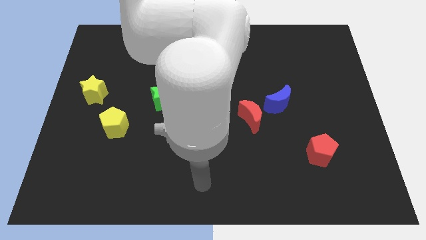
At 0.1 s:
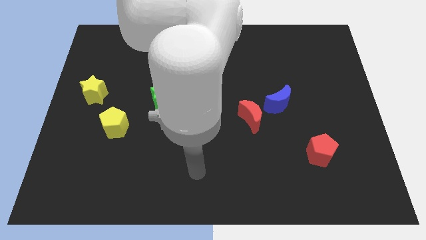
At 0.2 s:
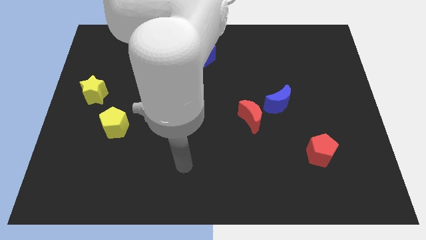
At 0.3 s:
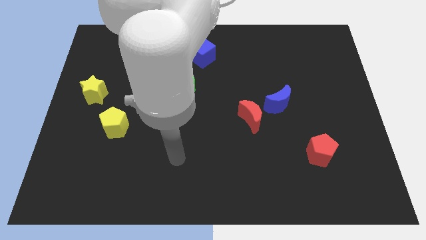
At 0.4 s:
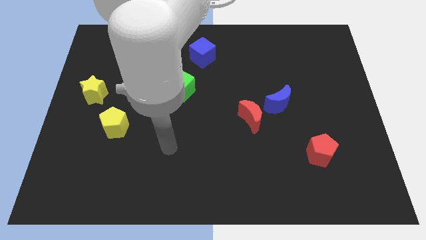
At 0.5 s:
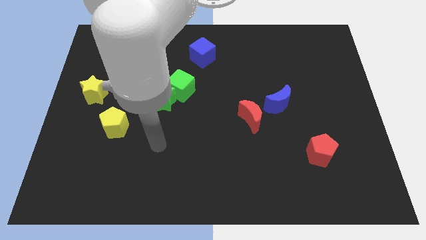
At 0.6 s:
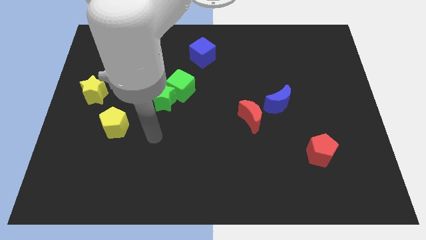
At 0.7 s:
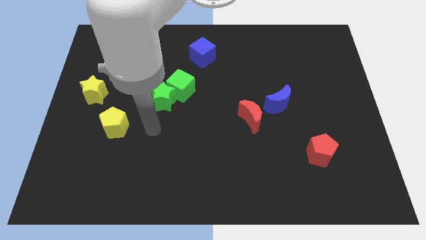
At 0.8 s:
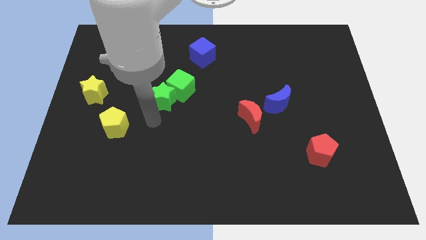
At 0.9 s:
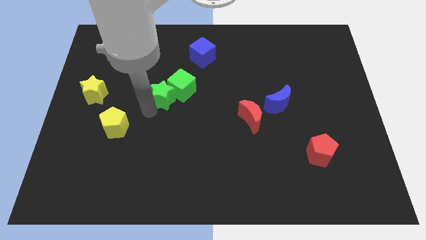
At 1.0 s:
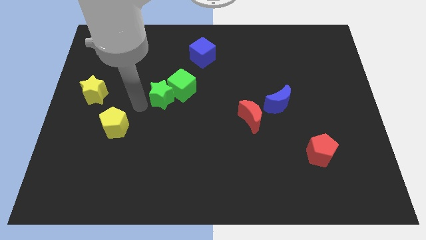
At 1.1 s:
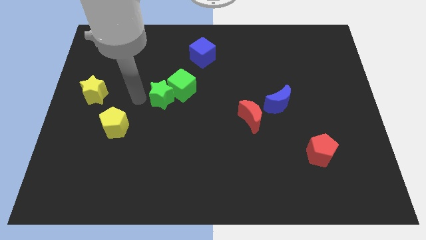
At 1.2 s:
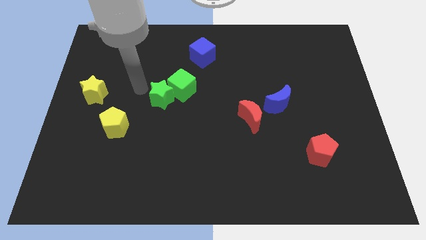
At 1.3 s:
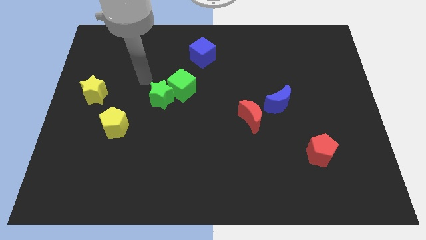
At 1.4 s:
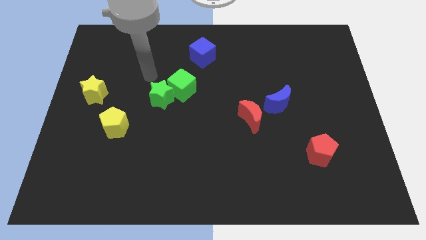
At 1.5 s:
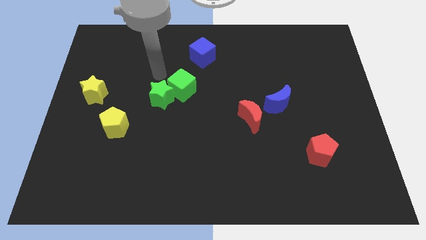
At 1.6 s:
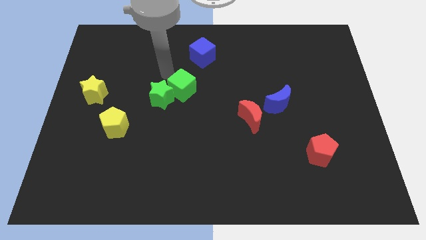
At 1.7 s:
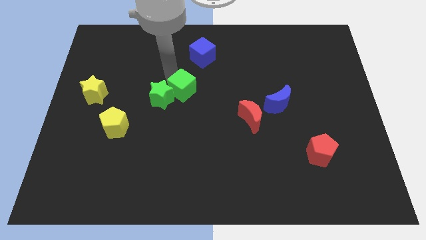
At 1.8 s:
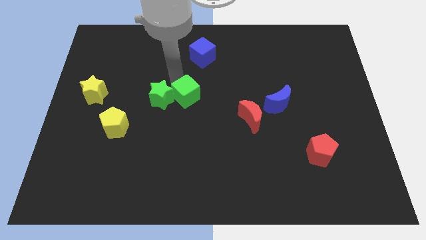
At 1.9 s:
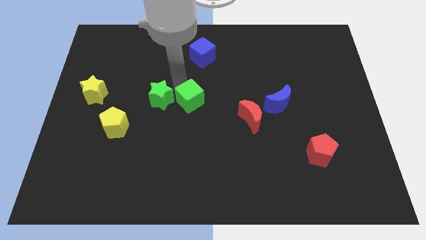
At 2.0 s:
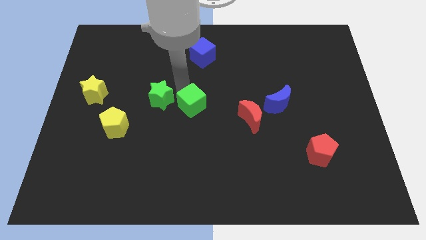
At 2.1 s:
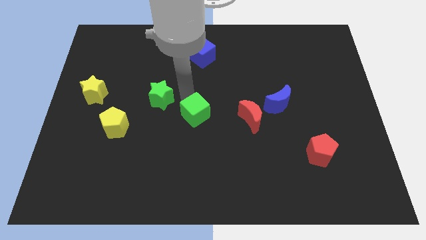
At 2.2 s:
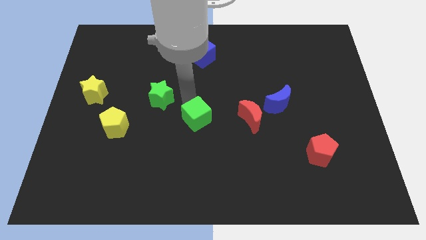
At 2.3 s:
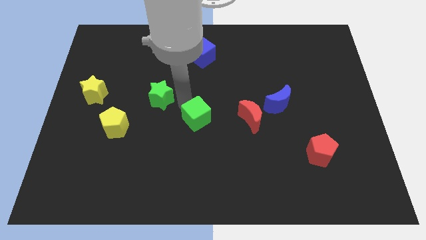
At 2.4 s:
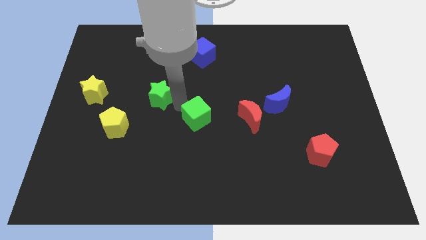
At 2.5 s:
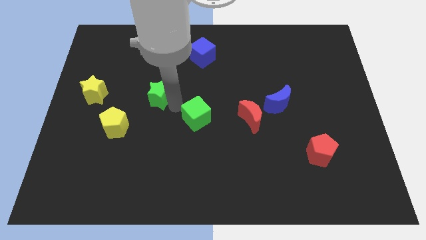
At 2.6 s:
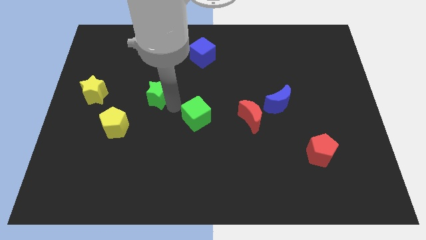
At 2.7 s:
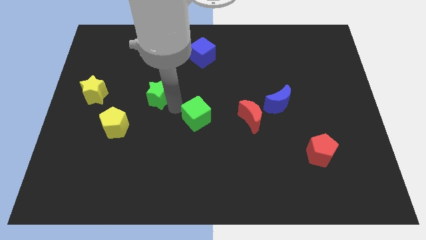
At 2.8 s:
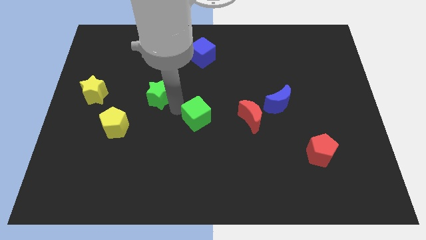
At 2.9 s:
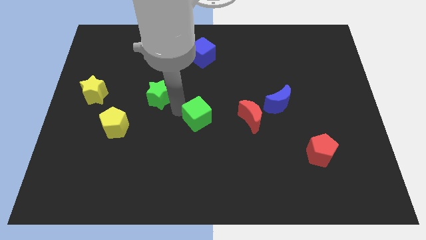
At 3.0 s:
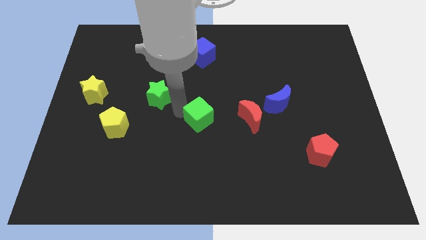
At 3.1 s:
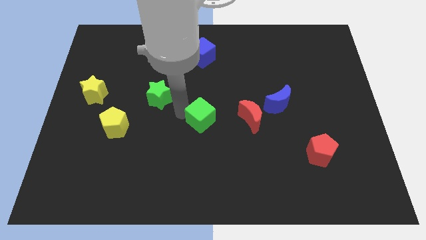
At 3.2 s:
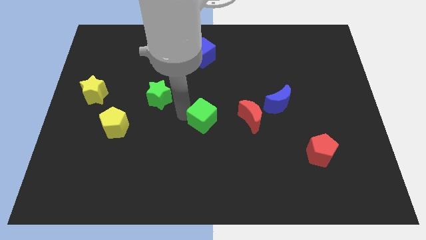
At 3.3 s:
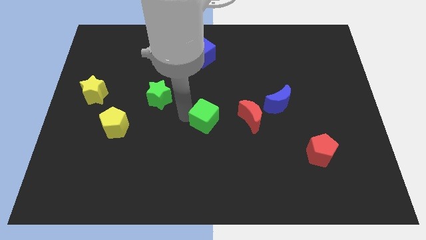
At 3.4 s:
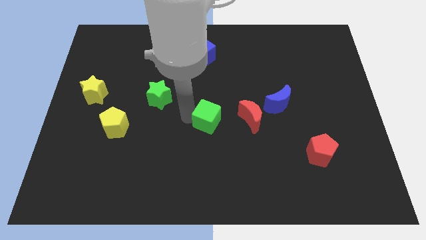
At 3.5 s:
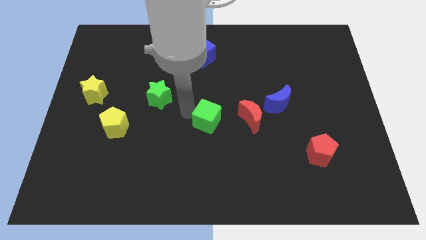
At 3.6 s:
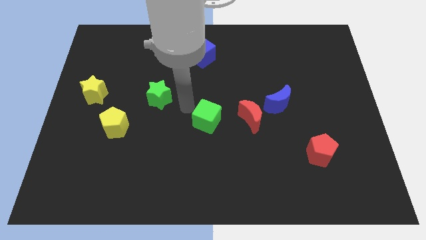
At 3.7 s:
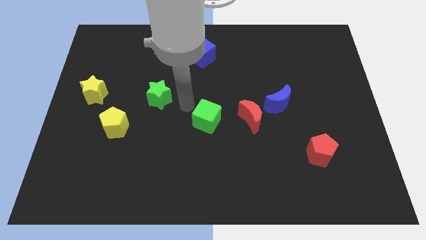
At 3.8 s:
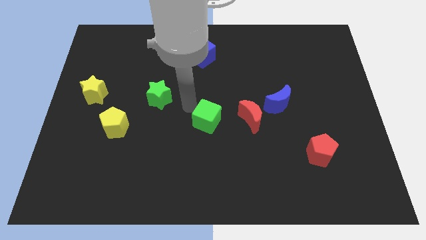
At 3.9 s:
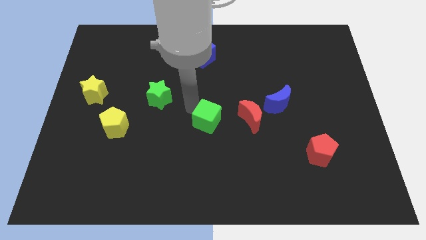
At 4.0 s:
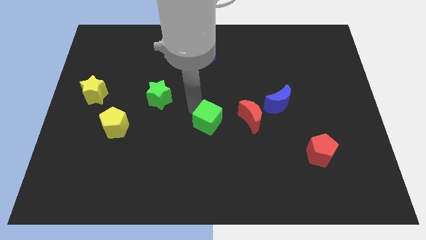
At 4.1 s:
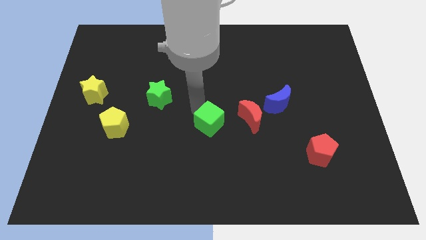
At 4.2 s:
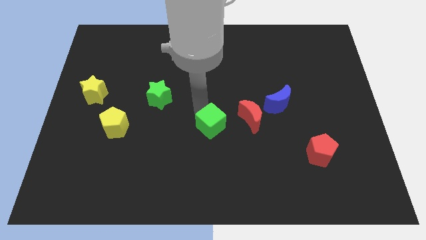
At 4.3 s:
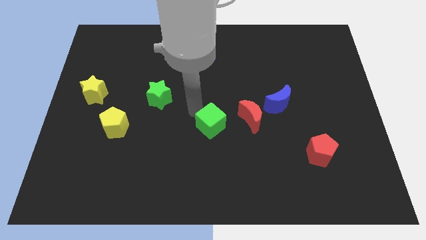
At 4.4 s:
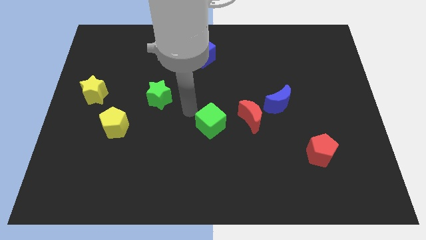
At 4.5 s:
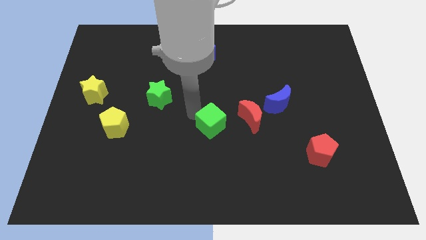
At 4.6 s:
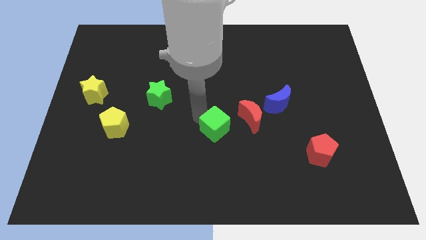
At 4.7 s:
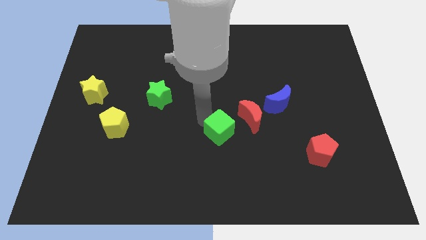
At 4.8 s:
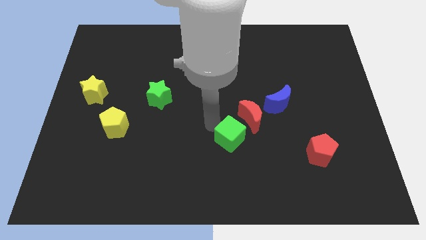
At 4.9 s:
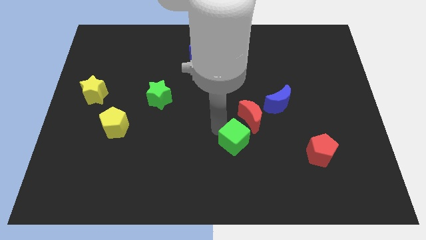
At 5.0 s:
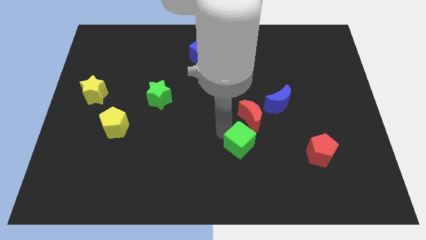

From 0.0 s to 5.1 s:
slide the green cube downwards and right diagonally

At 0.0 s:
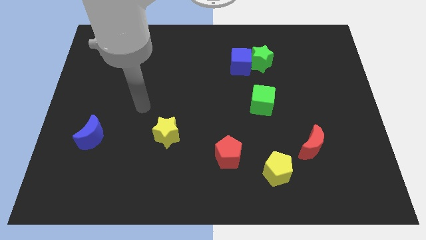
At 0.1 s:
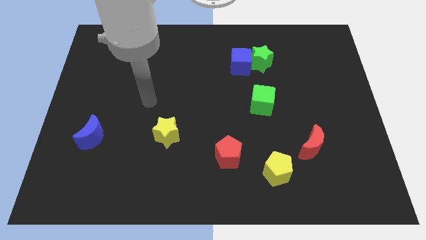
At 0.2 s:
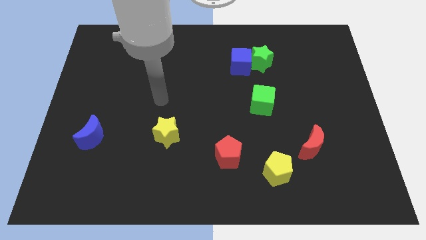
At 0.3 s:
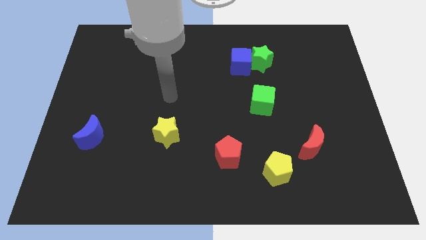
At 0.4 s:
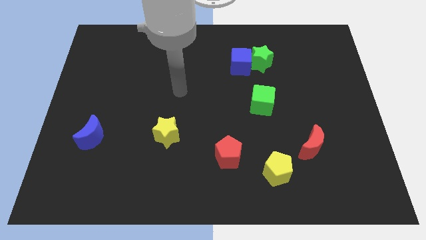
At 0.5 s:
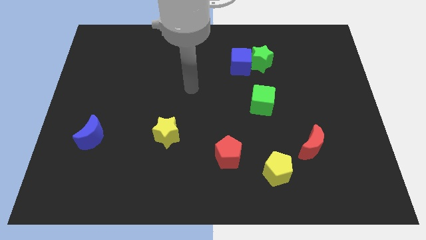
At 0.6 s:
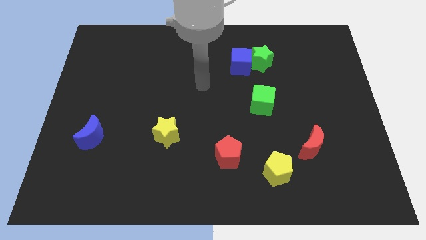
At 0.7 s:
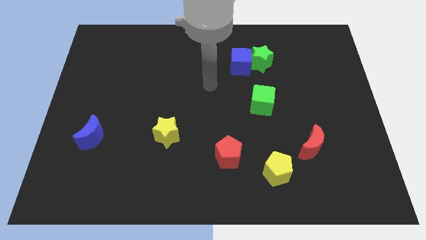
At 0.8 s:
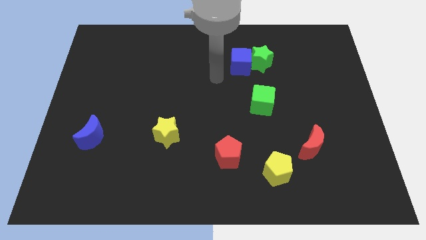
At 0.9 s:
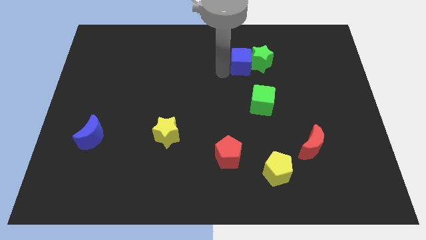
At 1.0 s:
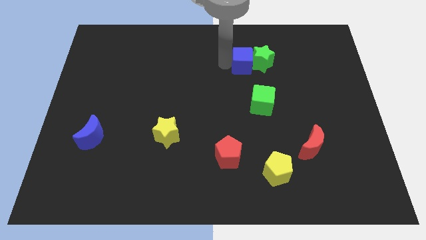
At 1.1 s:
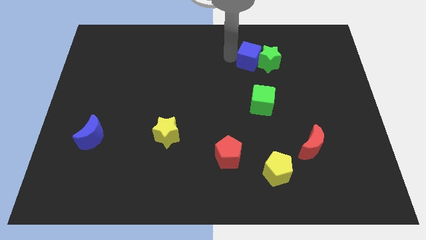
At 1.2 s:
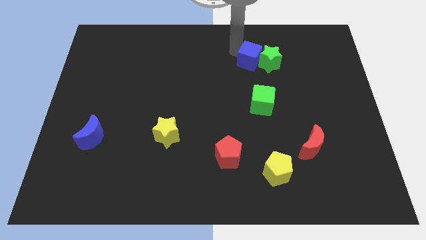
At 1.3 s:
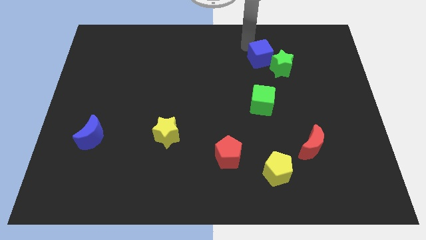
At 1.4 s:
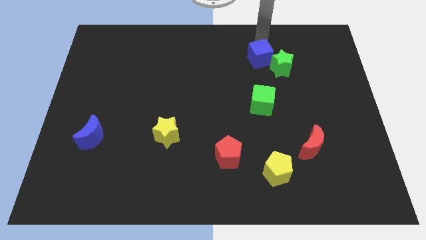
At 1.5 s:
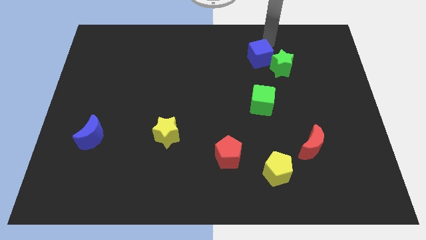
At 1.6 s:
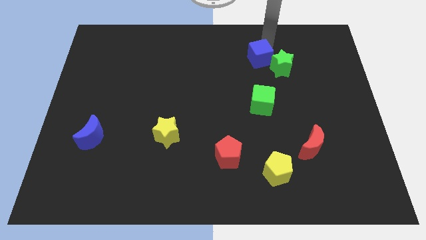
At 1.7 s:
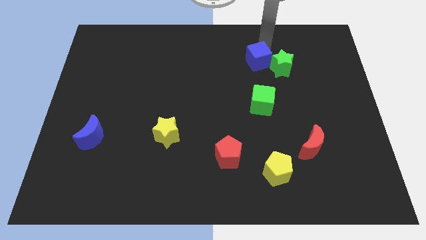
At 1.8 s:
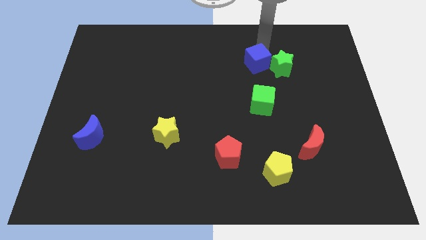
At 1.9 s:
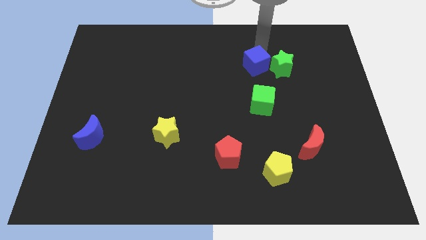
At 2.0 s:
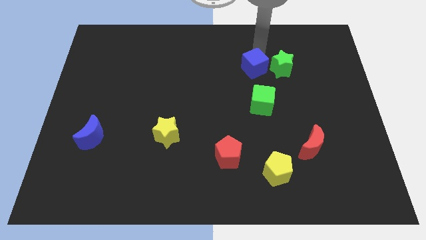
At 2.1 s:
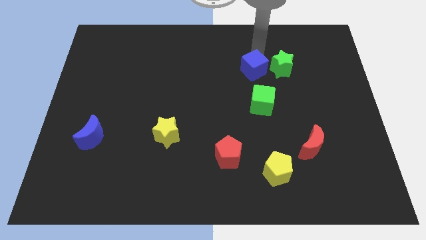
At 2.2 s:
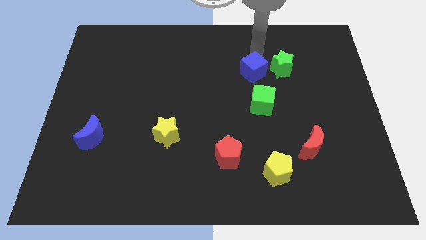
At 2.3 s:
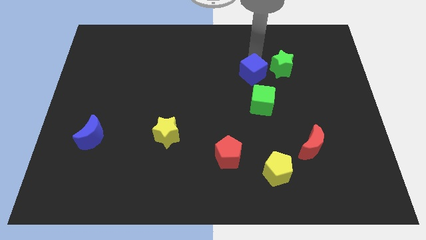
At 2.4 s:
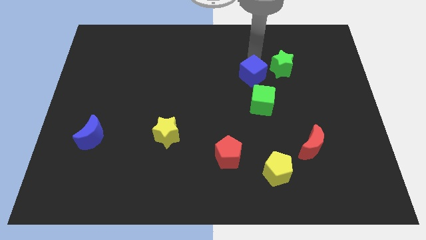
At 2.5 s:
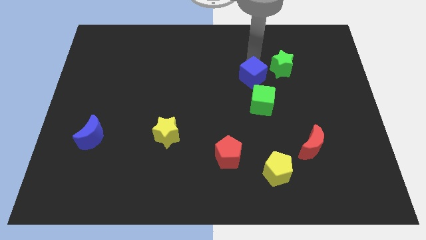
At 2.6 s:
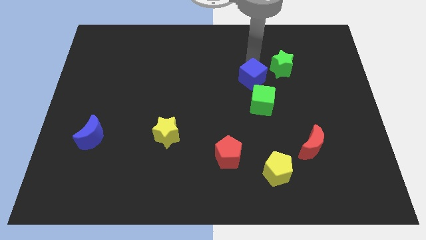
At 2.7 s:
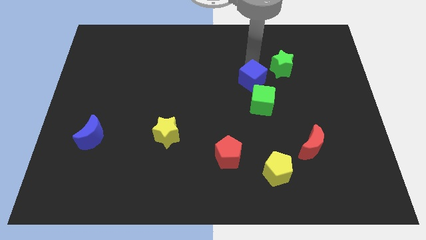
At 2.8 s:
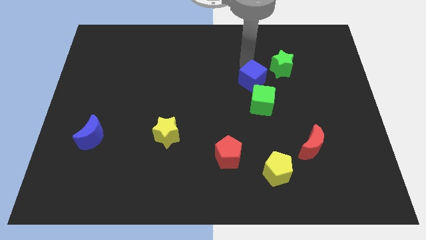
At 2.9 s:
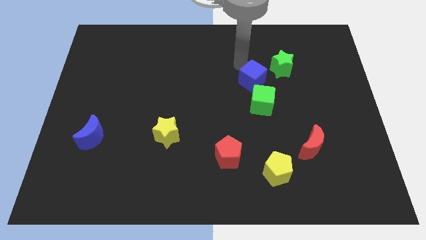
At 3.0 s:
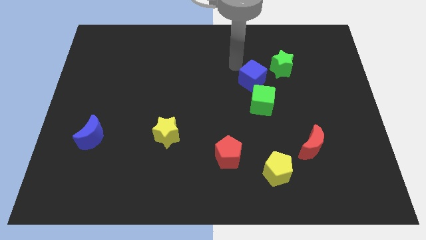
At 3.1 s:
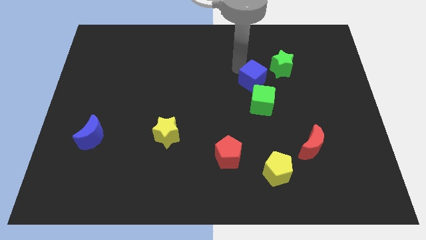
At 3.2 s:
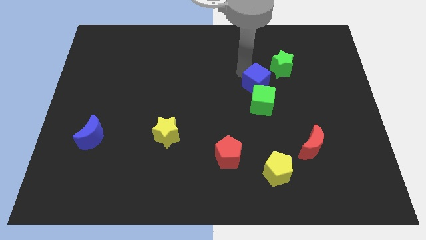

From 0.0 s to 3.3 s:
push the blue cube a bit down and to the right
